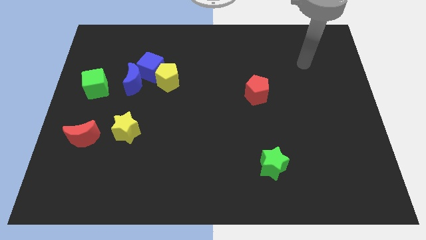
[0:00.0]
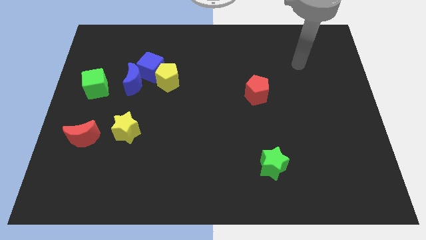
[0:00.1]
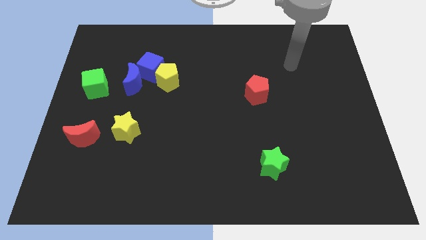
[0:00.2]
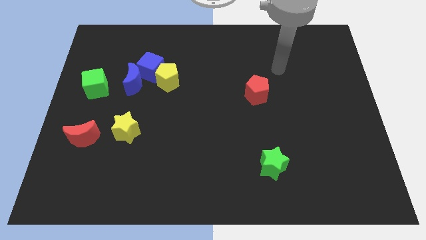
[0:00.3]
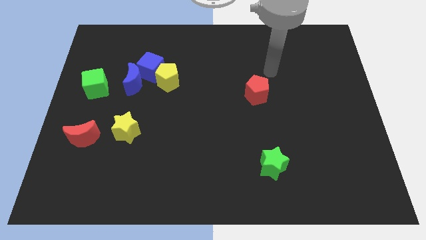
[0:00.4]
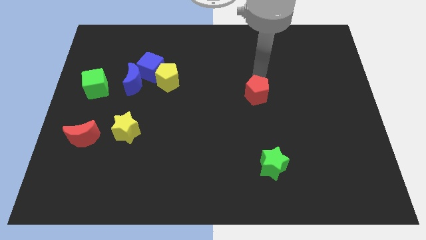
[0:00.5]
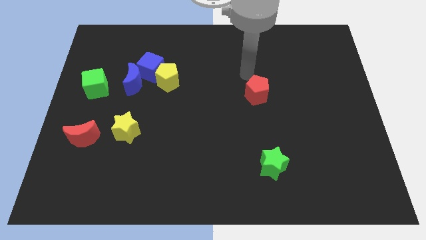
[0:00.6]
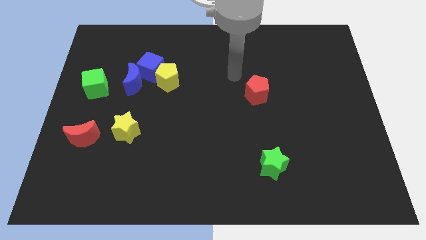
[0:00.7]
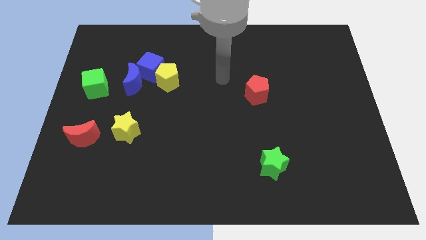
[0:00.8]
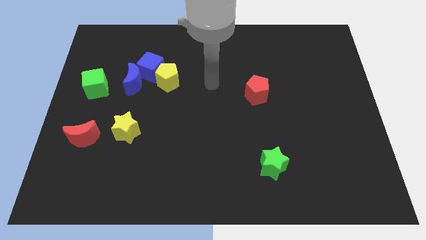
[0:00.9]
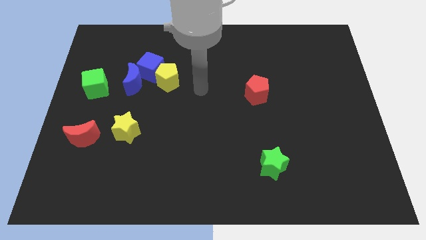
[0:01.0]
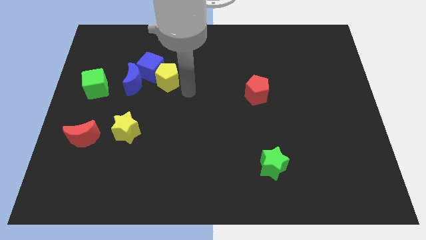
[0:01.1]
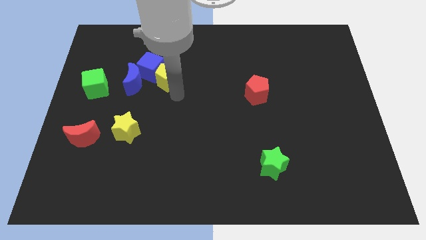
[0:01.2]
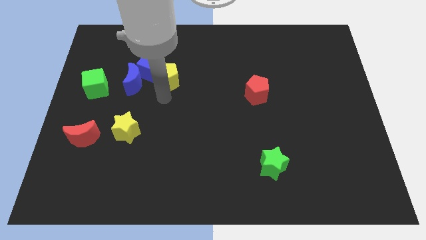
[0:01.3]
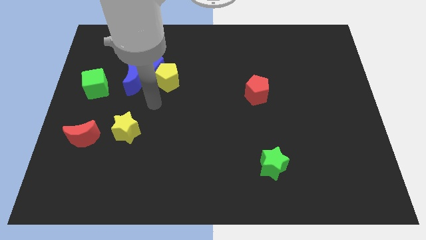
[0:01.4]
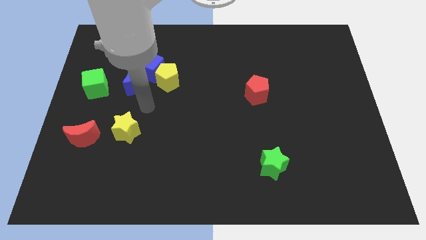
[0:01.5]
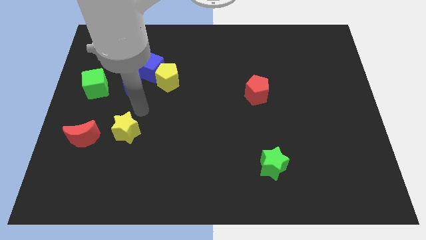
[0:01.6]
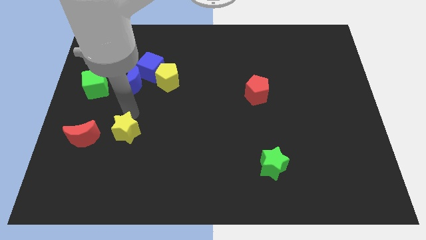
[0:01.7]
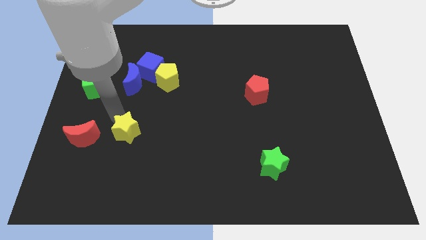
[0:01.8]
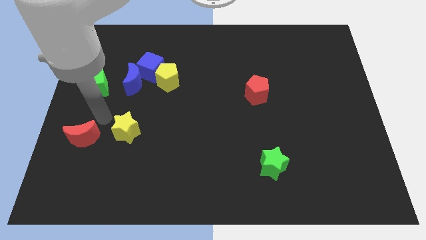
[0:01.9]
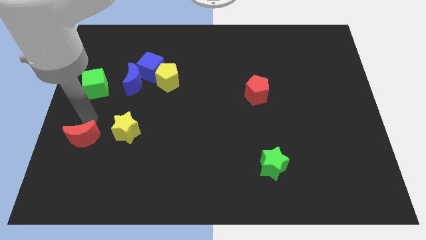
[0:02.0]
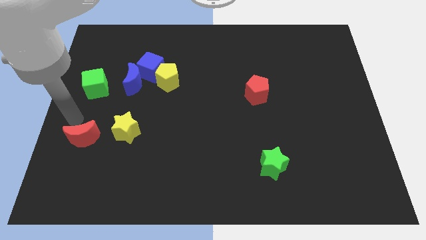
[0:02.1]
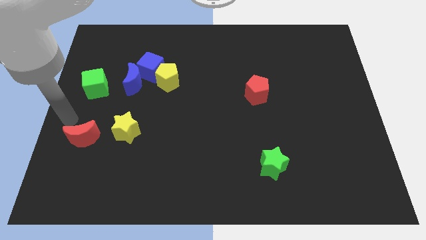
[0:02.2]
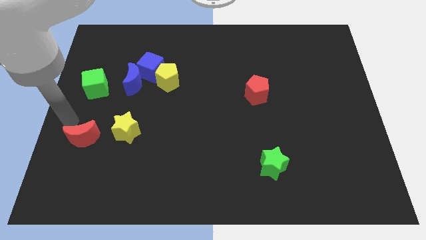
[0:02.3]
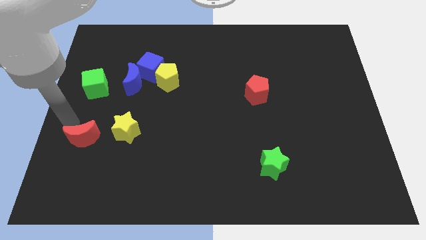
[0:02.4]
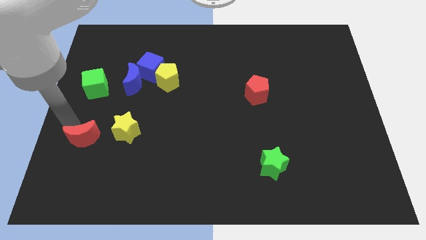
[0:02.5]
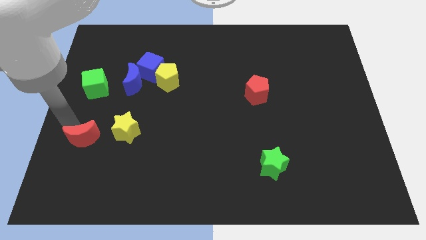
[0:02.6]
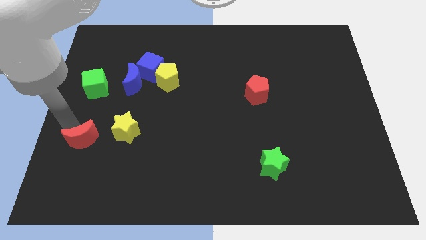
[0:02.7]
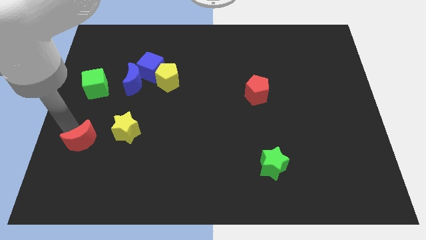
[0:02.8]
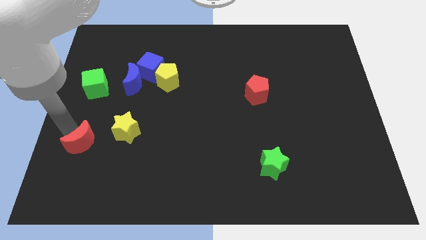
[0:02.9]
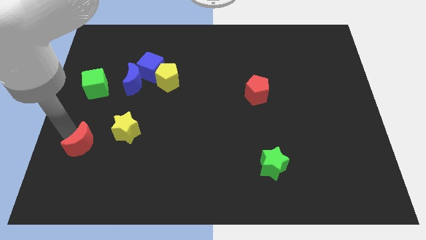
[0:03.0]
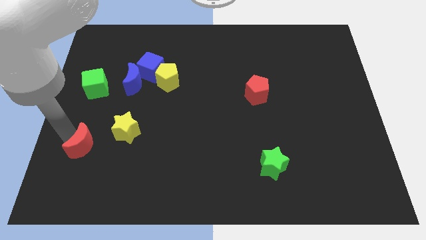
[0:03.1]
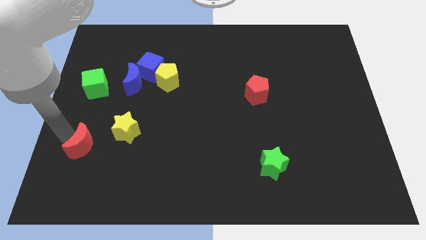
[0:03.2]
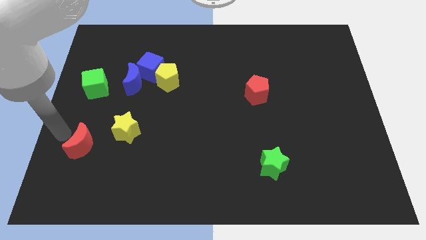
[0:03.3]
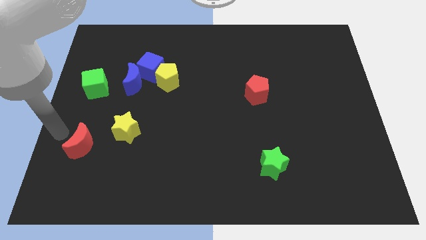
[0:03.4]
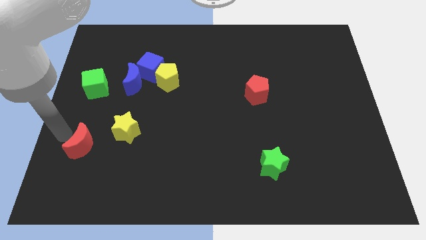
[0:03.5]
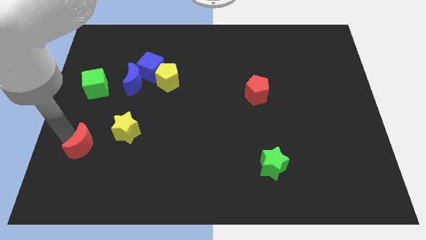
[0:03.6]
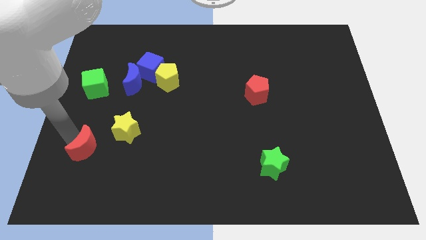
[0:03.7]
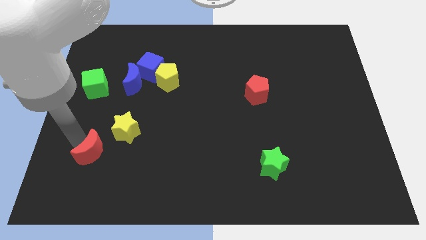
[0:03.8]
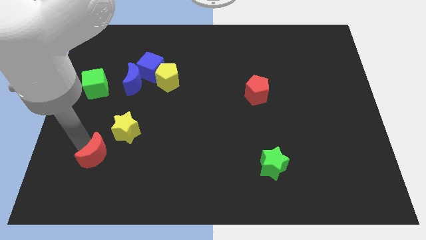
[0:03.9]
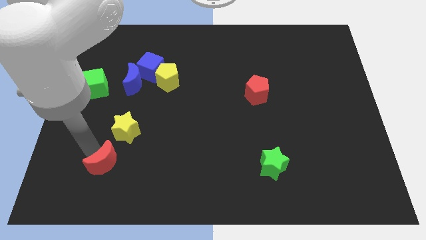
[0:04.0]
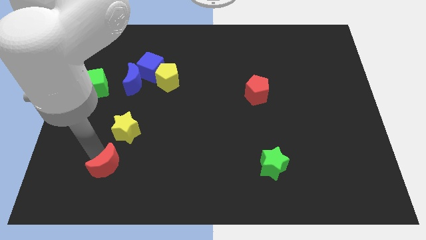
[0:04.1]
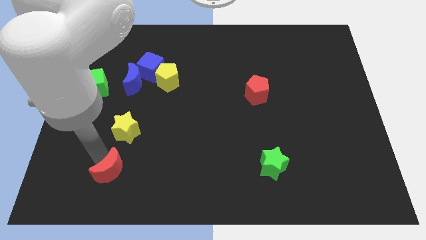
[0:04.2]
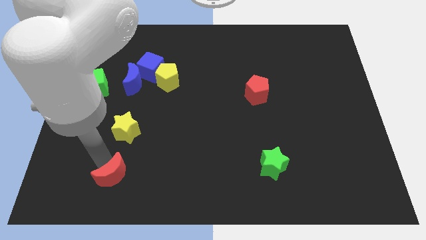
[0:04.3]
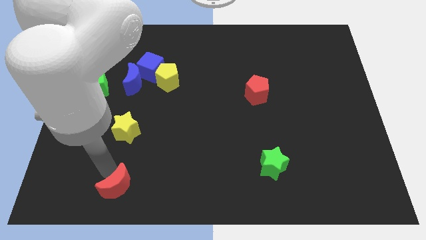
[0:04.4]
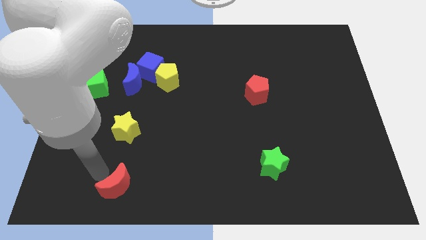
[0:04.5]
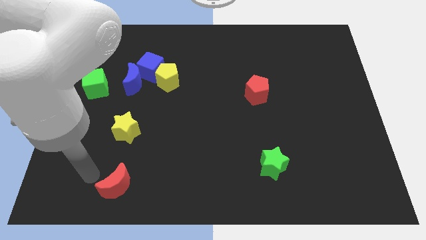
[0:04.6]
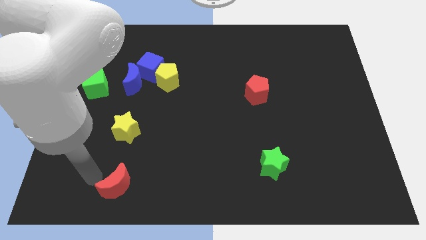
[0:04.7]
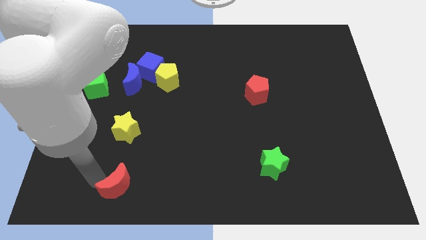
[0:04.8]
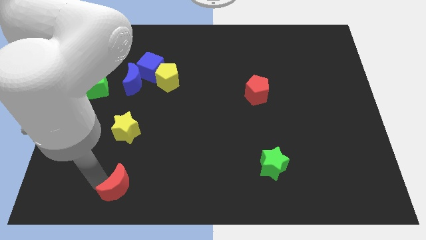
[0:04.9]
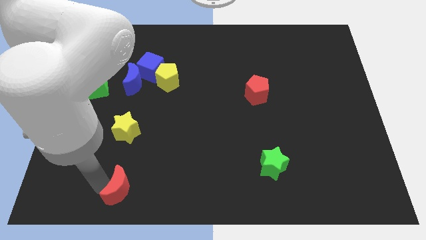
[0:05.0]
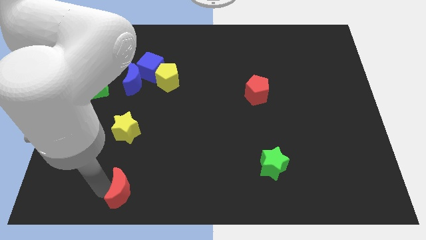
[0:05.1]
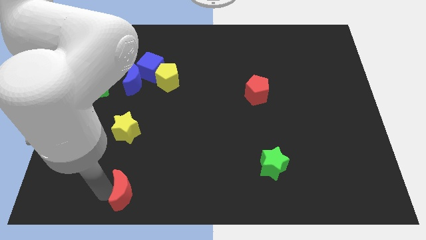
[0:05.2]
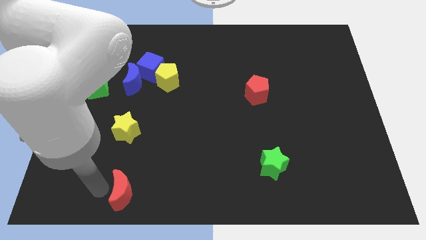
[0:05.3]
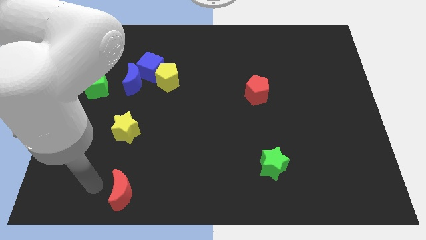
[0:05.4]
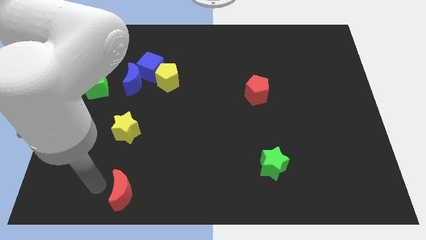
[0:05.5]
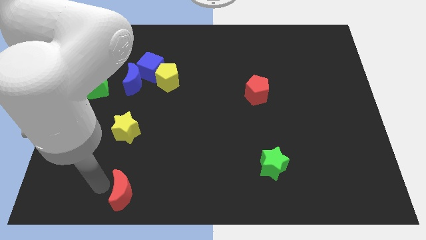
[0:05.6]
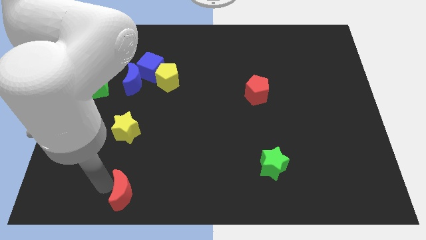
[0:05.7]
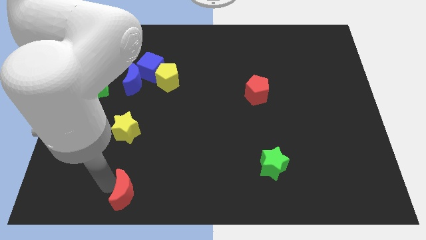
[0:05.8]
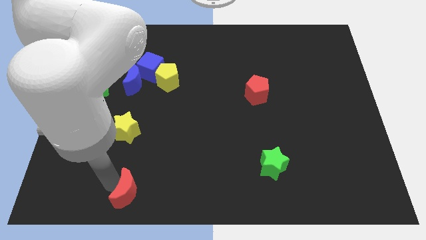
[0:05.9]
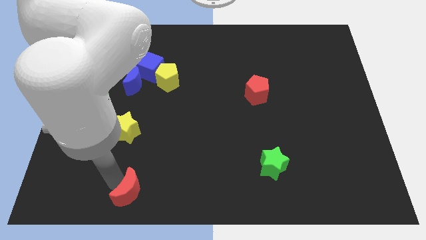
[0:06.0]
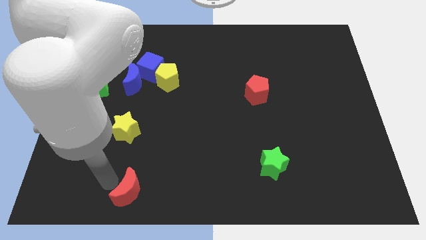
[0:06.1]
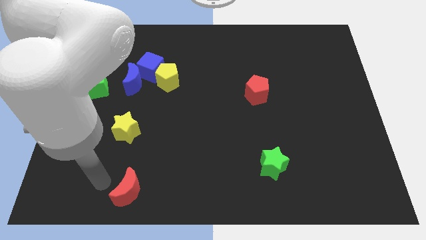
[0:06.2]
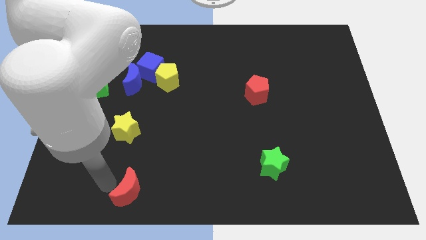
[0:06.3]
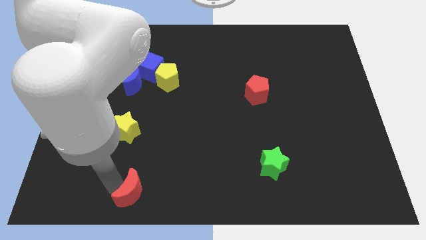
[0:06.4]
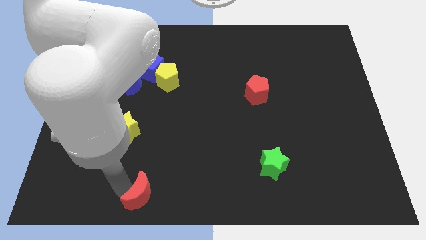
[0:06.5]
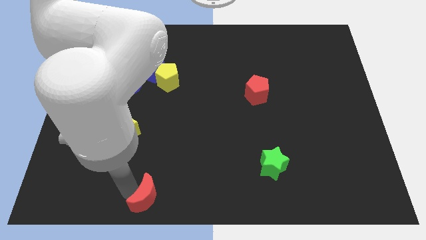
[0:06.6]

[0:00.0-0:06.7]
put the red moon to the bottom
